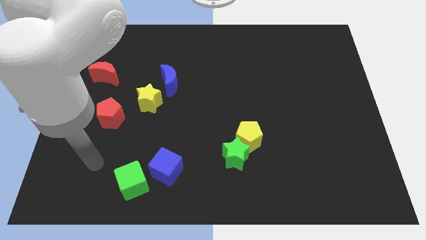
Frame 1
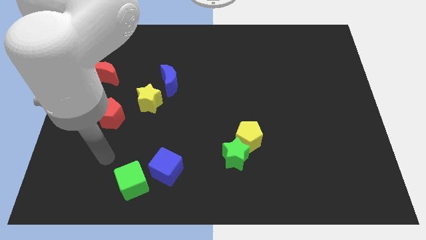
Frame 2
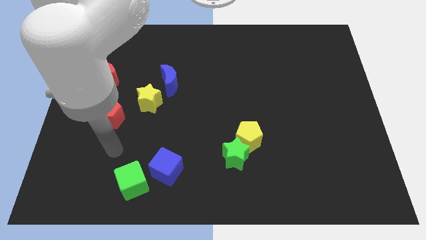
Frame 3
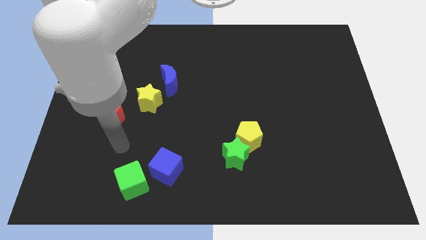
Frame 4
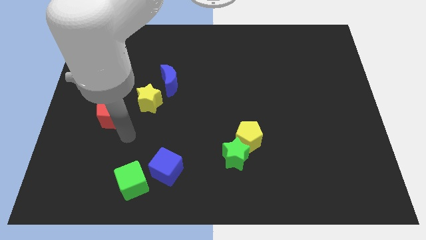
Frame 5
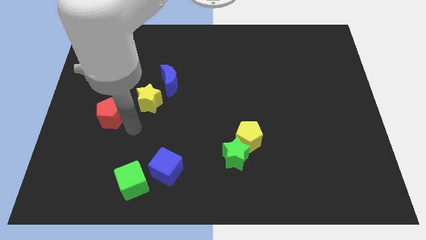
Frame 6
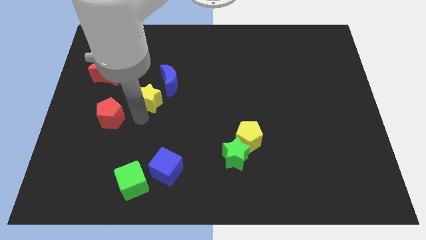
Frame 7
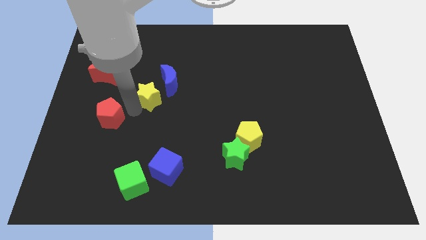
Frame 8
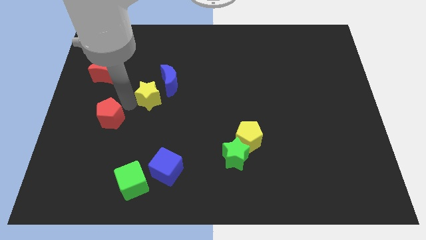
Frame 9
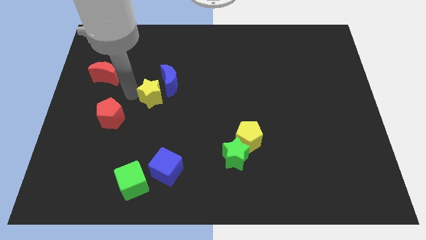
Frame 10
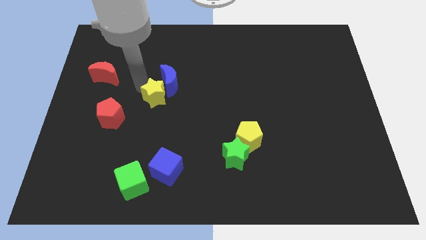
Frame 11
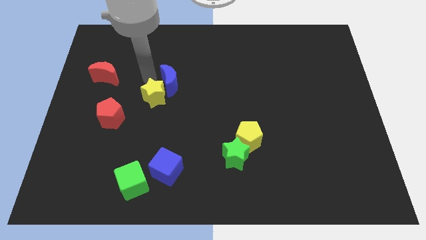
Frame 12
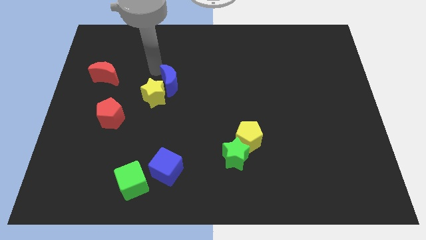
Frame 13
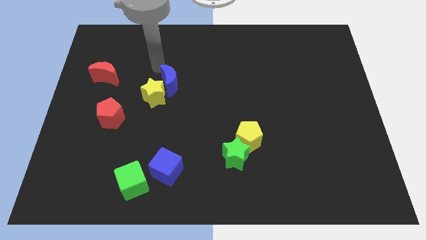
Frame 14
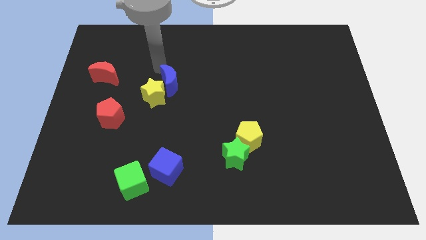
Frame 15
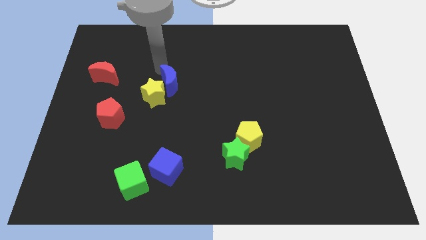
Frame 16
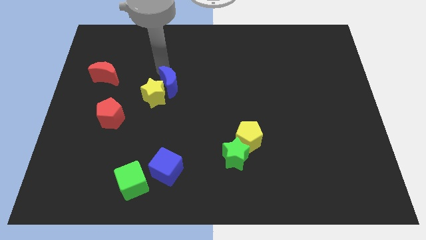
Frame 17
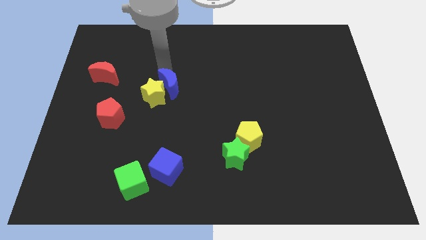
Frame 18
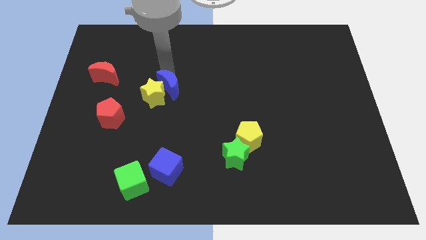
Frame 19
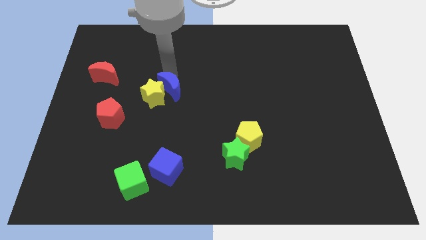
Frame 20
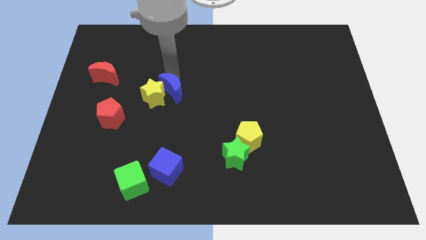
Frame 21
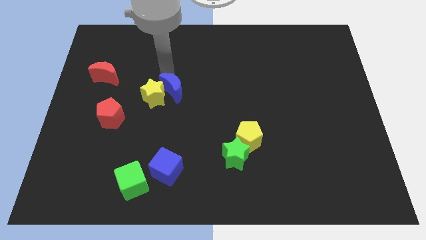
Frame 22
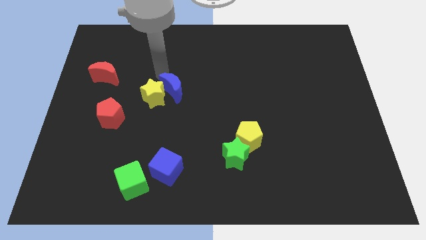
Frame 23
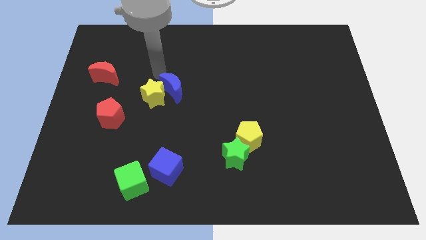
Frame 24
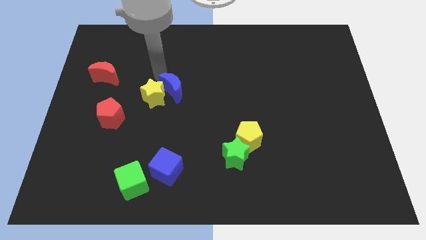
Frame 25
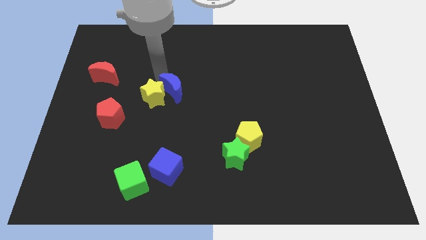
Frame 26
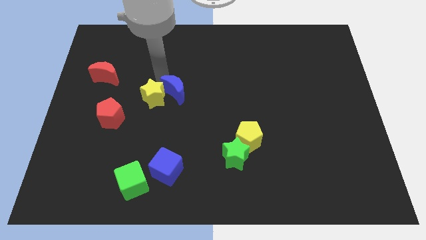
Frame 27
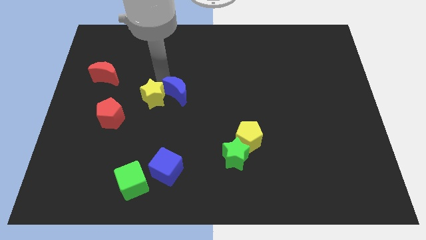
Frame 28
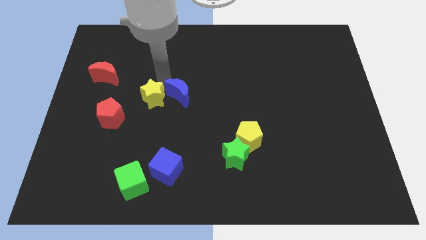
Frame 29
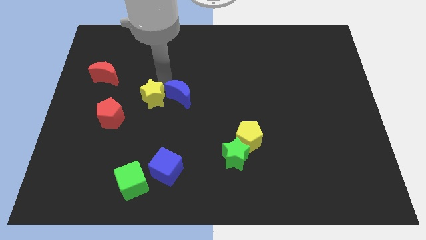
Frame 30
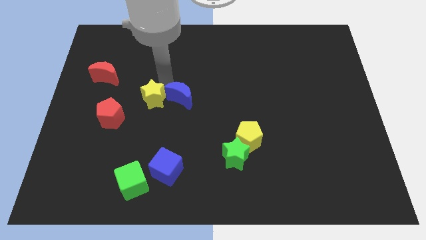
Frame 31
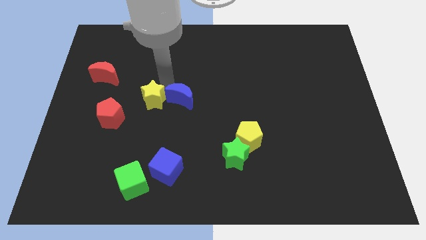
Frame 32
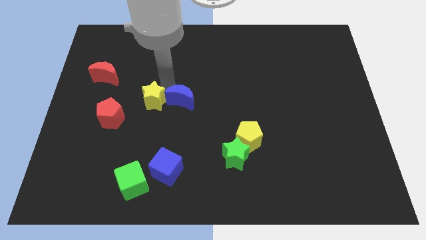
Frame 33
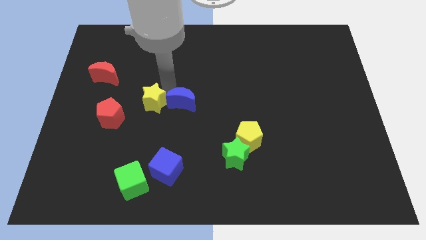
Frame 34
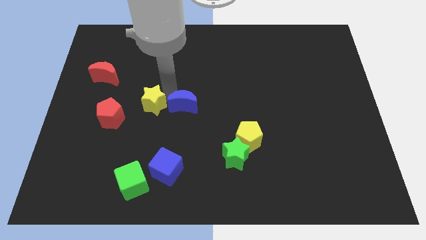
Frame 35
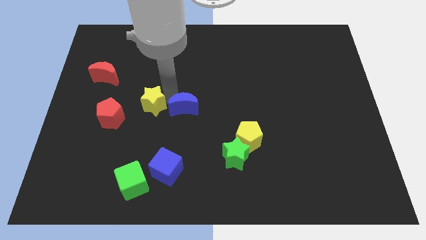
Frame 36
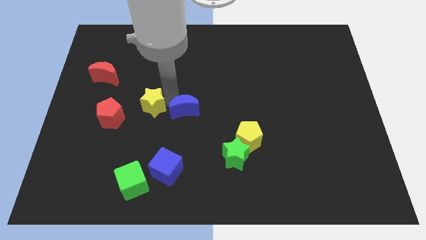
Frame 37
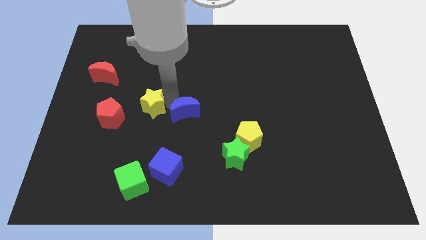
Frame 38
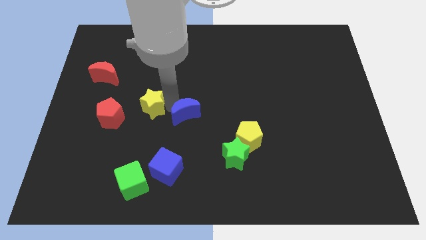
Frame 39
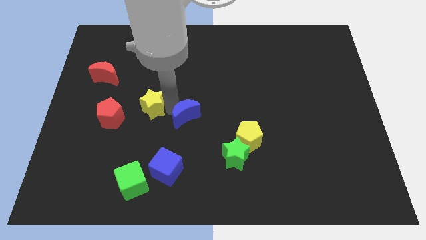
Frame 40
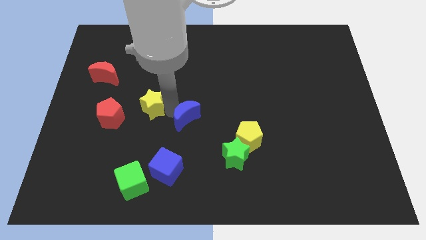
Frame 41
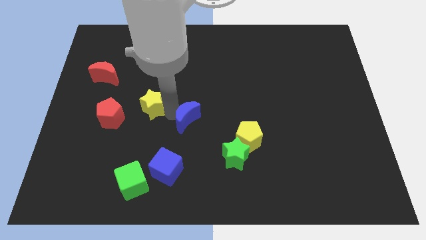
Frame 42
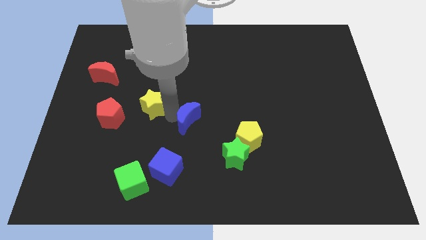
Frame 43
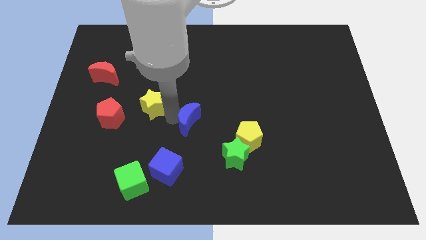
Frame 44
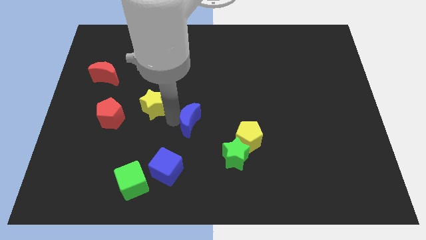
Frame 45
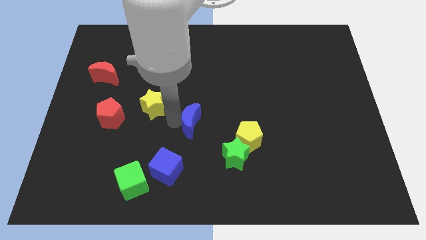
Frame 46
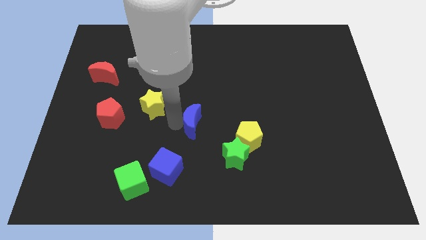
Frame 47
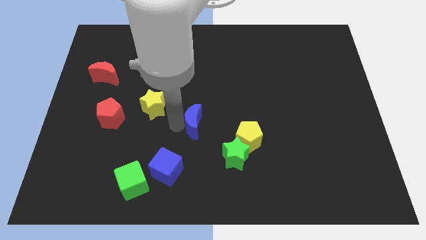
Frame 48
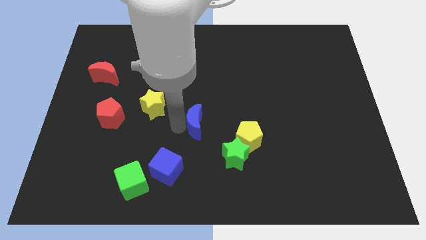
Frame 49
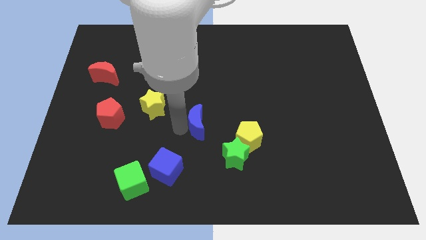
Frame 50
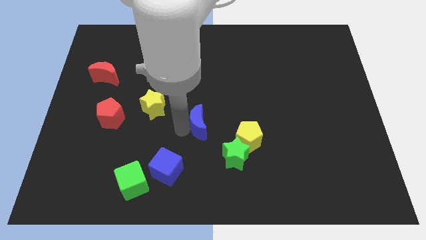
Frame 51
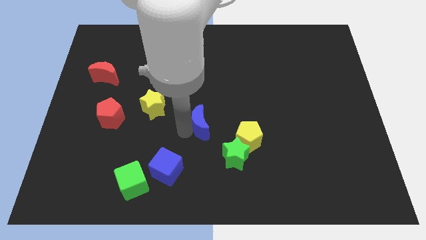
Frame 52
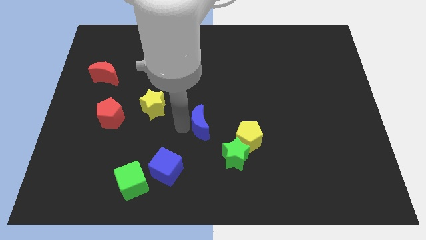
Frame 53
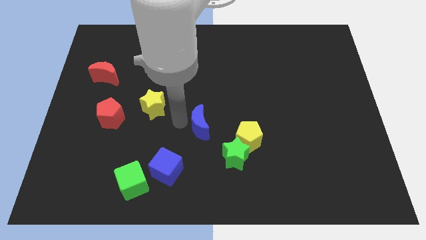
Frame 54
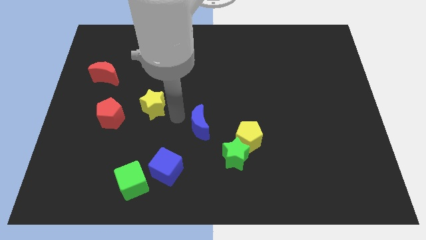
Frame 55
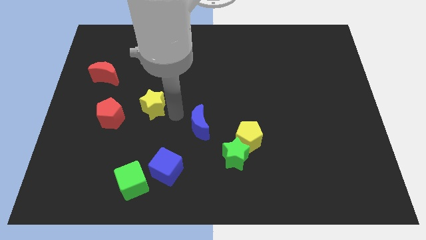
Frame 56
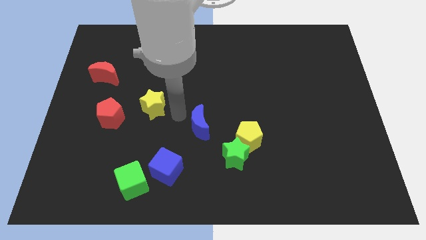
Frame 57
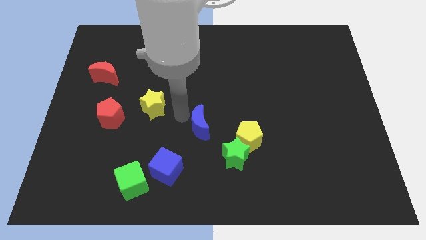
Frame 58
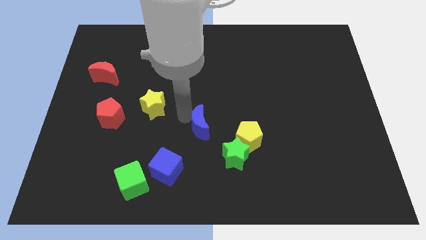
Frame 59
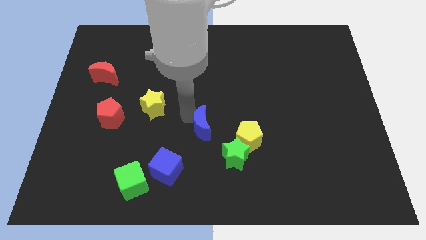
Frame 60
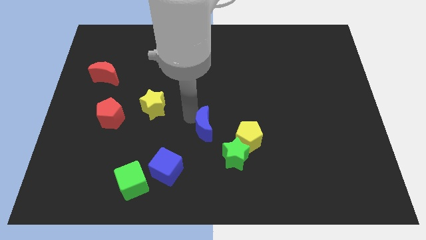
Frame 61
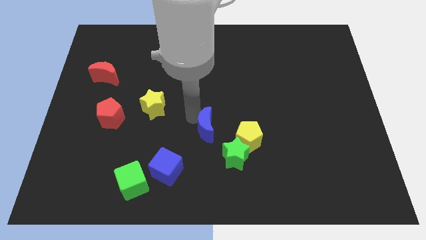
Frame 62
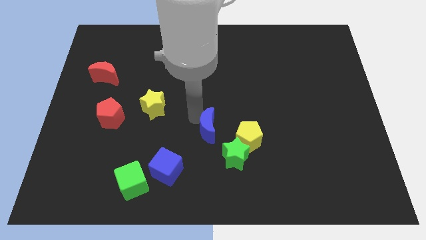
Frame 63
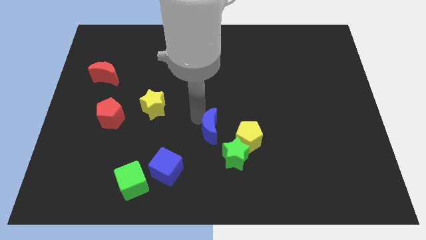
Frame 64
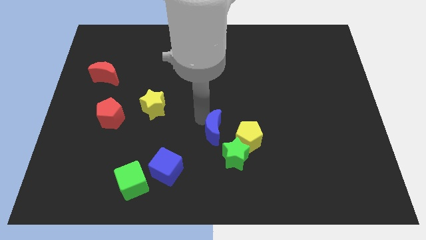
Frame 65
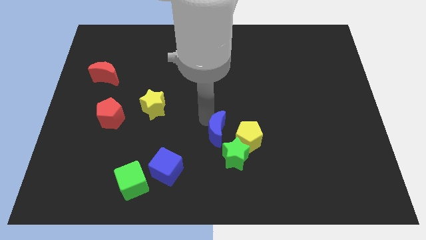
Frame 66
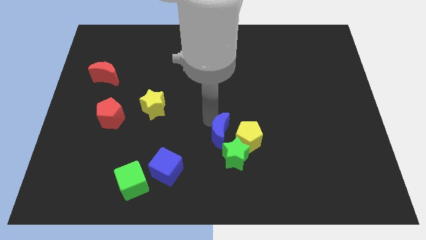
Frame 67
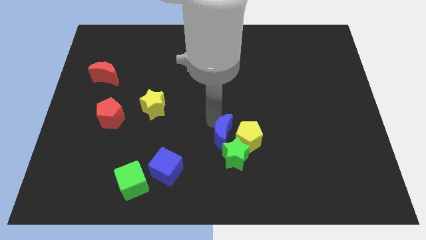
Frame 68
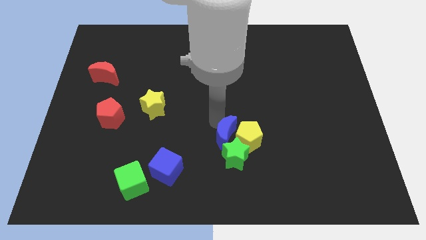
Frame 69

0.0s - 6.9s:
push the blue moon towards the green star
